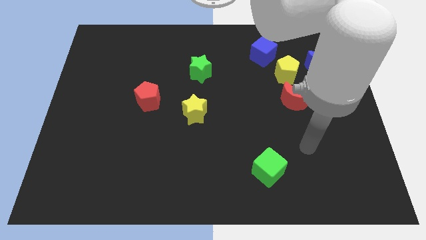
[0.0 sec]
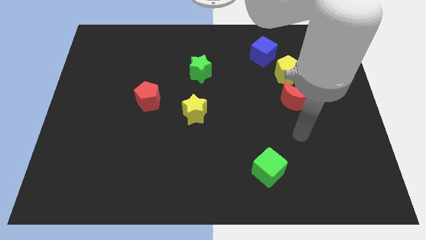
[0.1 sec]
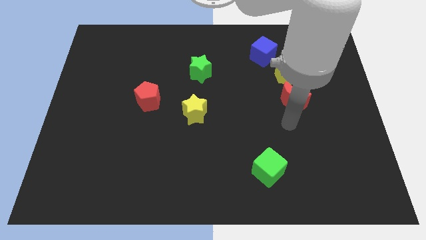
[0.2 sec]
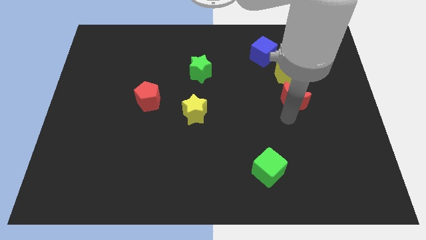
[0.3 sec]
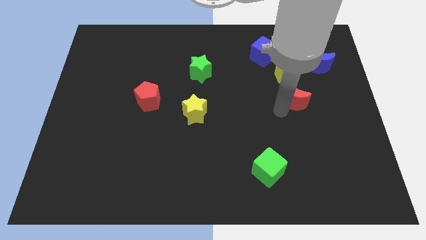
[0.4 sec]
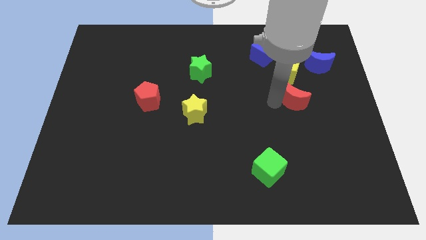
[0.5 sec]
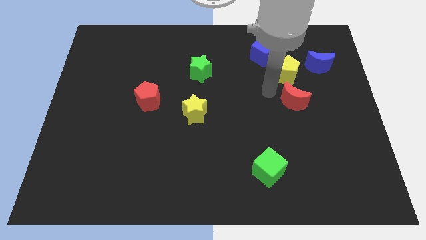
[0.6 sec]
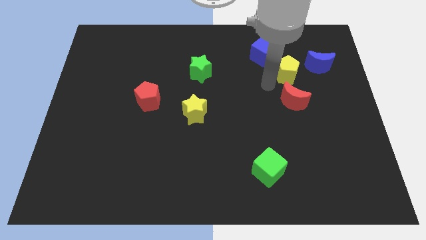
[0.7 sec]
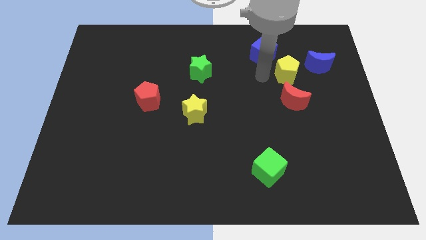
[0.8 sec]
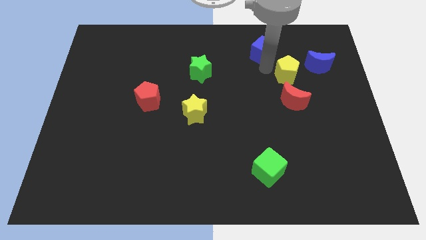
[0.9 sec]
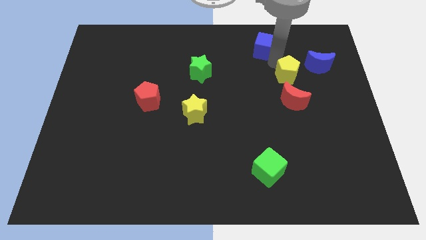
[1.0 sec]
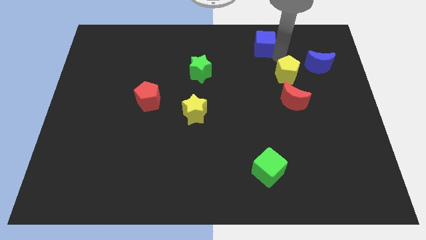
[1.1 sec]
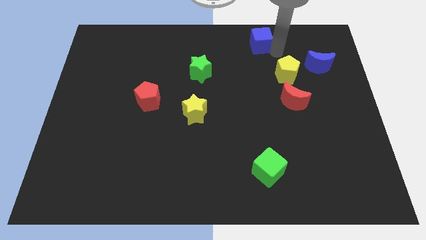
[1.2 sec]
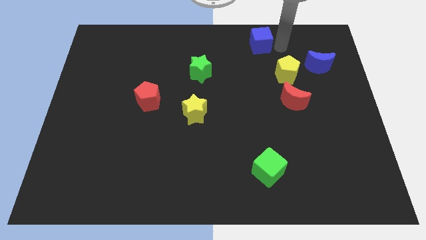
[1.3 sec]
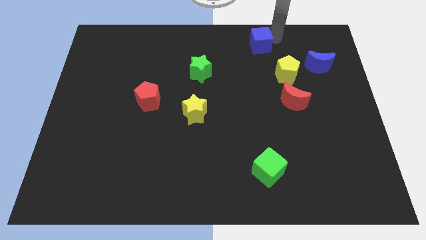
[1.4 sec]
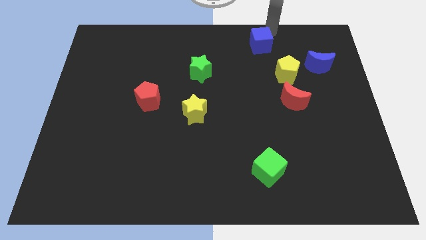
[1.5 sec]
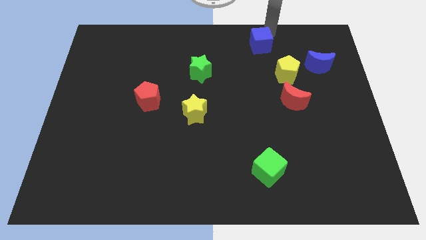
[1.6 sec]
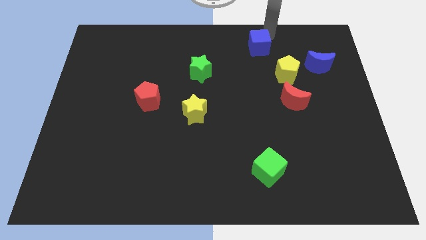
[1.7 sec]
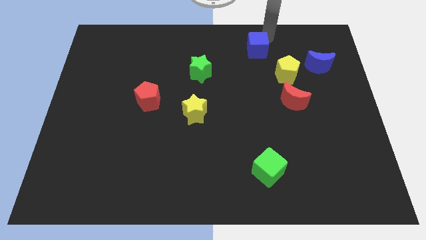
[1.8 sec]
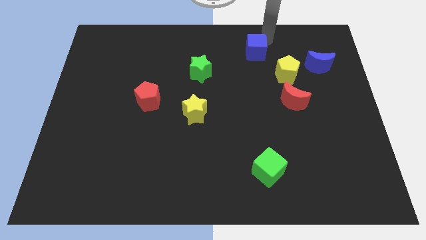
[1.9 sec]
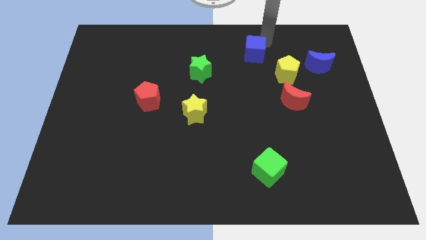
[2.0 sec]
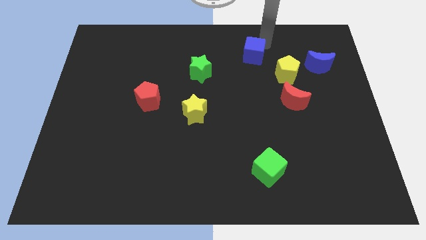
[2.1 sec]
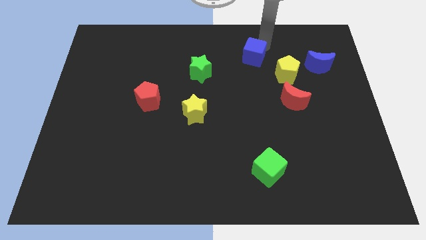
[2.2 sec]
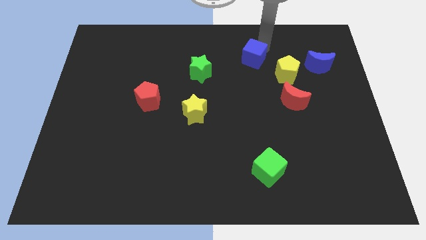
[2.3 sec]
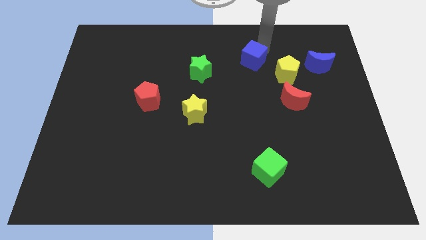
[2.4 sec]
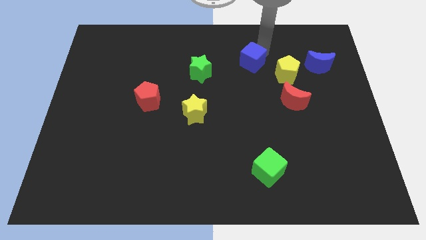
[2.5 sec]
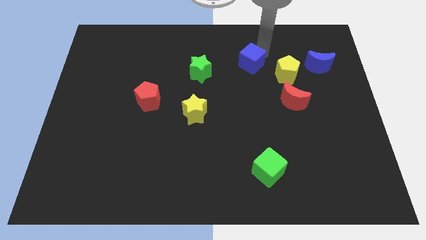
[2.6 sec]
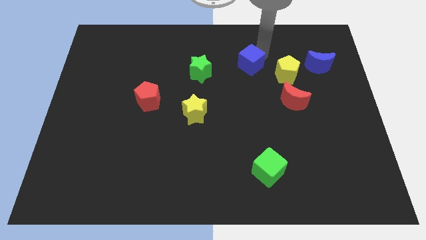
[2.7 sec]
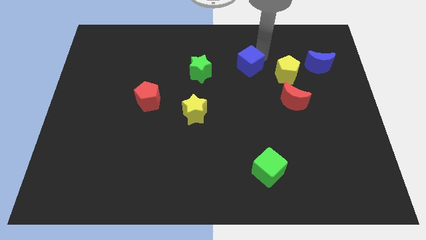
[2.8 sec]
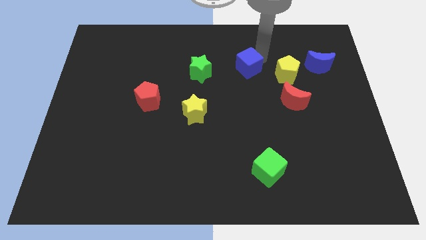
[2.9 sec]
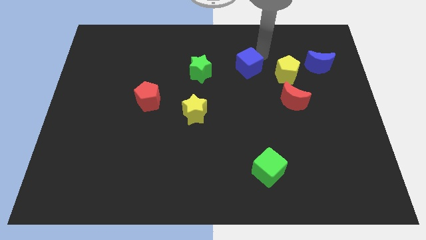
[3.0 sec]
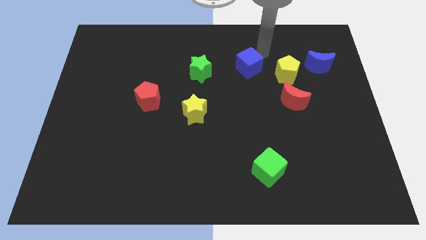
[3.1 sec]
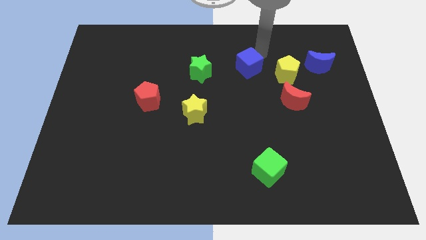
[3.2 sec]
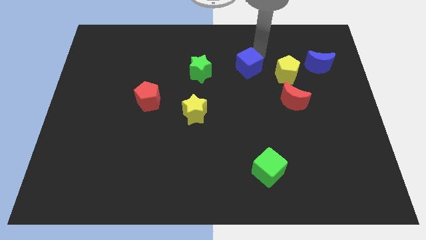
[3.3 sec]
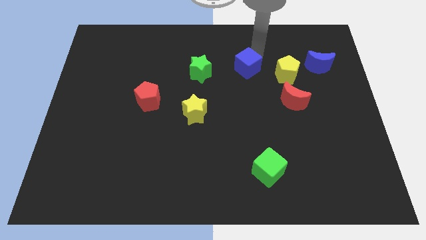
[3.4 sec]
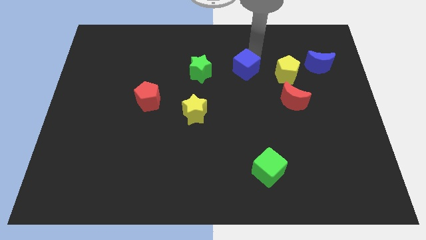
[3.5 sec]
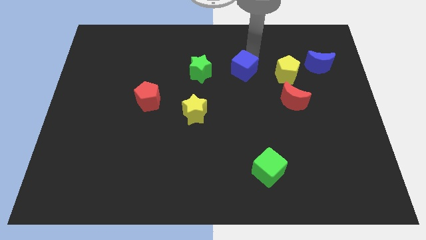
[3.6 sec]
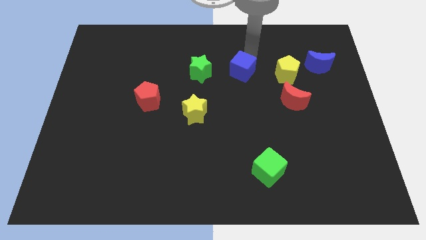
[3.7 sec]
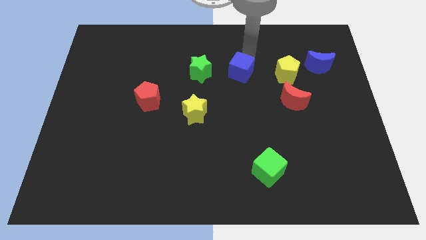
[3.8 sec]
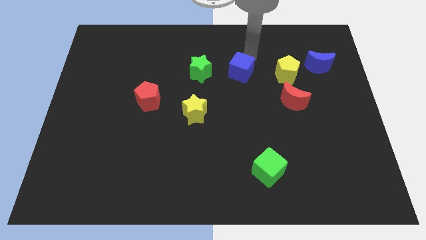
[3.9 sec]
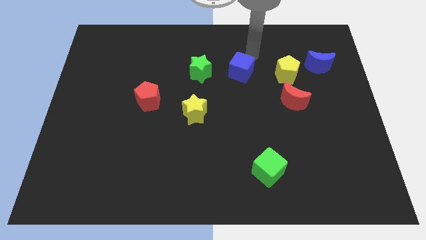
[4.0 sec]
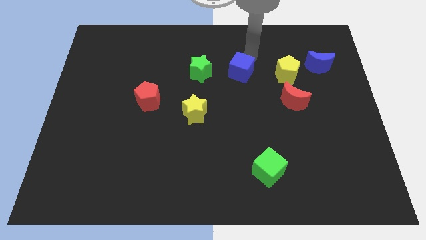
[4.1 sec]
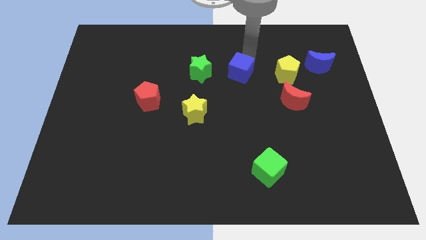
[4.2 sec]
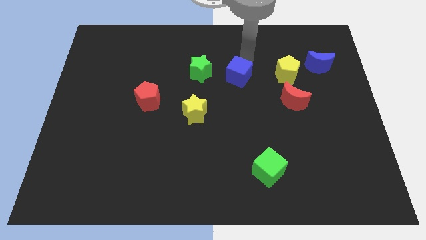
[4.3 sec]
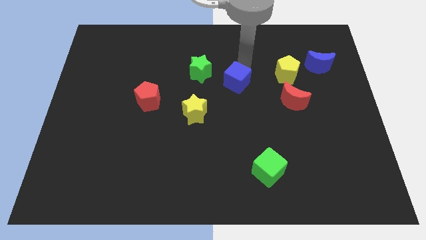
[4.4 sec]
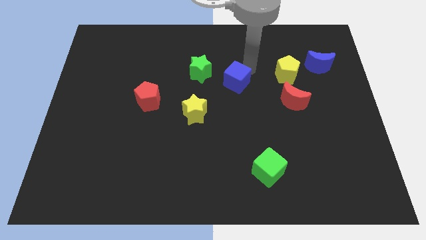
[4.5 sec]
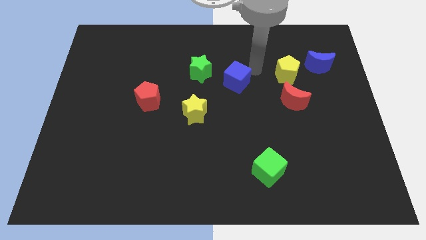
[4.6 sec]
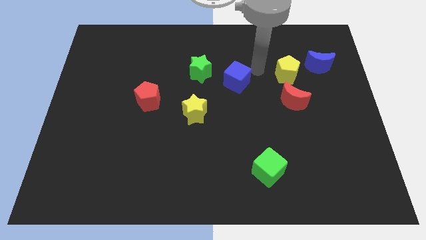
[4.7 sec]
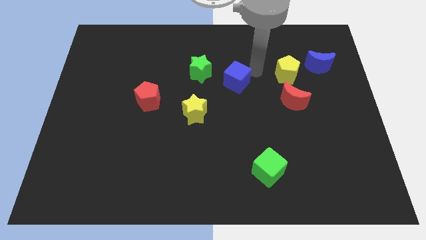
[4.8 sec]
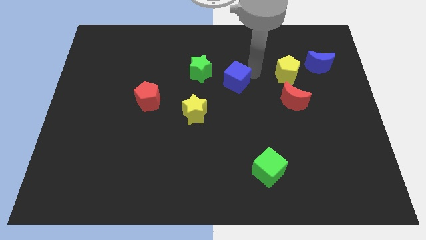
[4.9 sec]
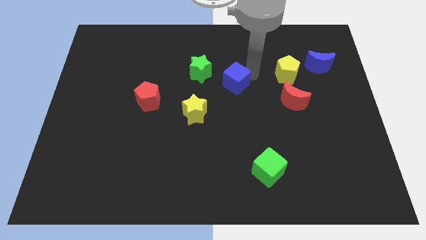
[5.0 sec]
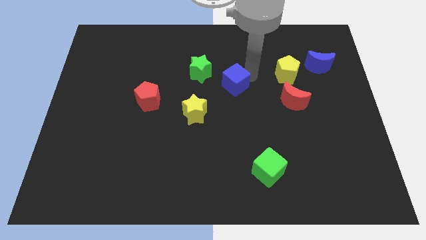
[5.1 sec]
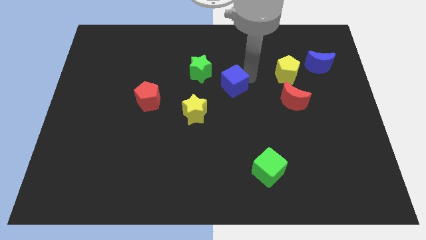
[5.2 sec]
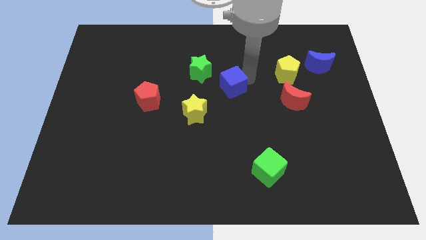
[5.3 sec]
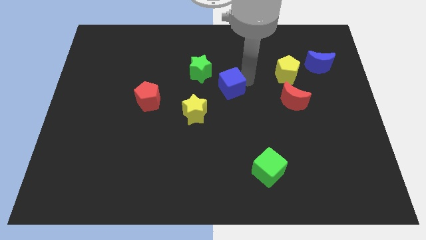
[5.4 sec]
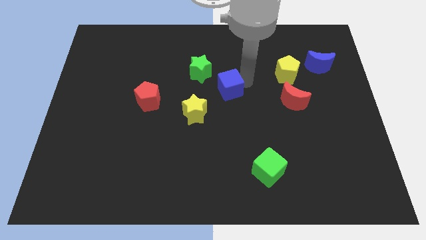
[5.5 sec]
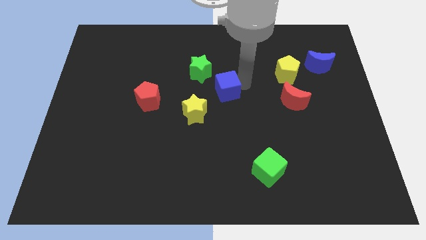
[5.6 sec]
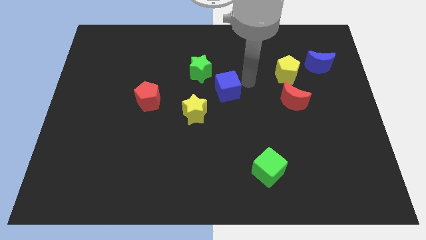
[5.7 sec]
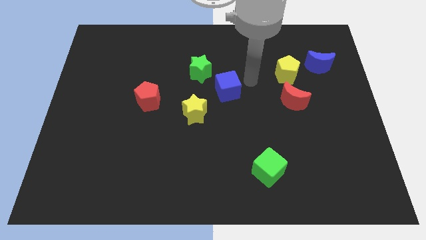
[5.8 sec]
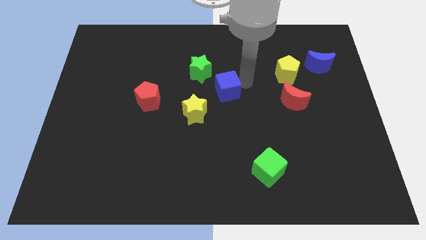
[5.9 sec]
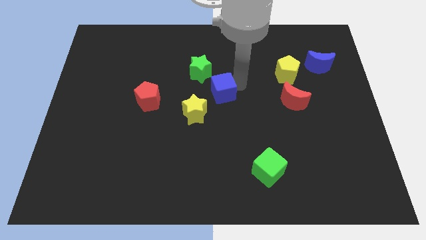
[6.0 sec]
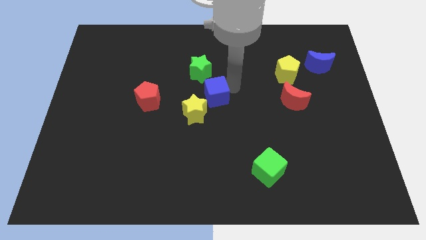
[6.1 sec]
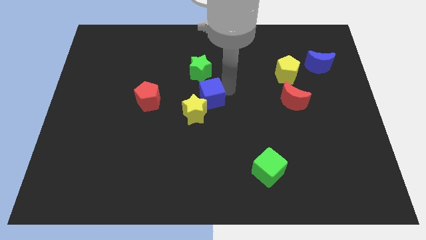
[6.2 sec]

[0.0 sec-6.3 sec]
move the blue cube downwards and left

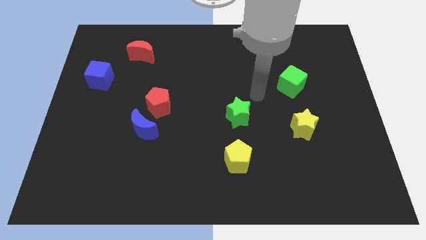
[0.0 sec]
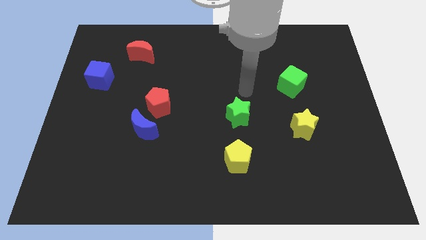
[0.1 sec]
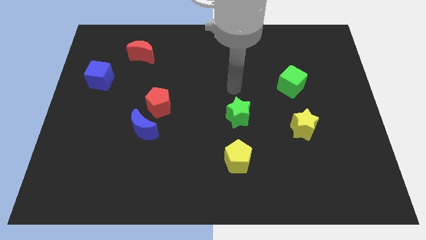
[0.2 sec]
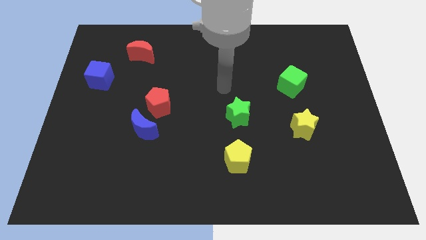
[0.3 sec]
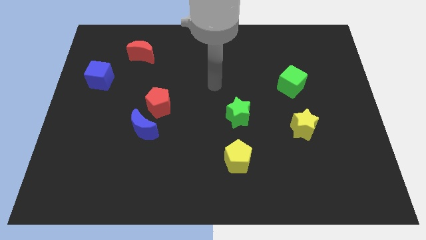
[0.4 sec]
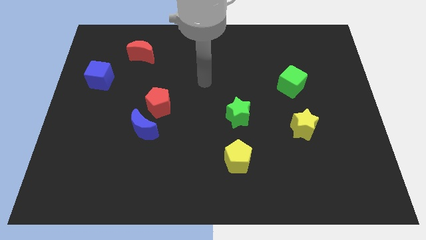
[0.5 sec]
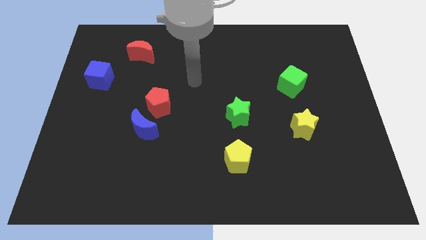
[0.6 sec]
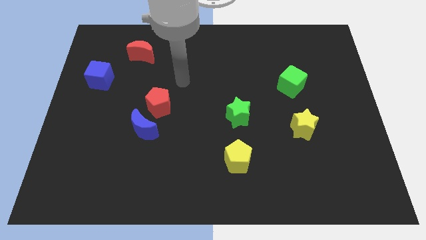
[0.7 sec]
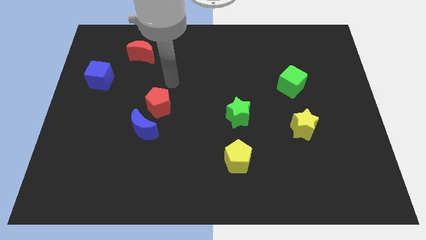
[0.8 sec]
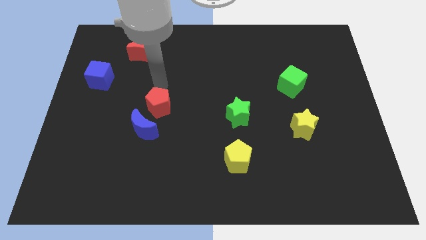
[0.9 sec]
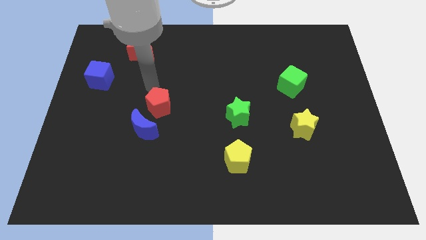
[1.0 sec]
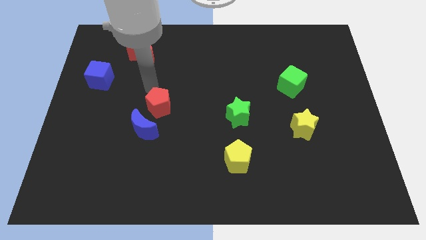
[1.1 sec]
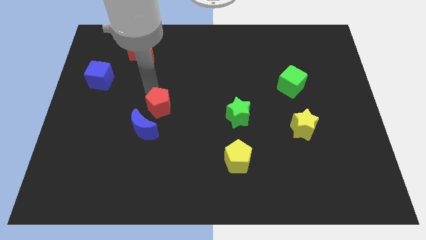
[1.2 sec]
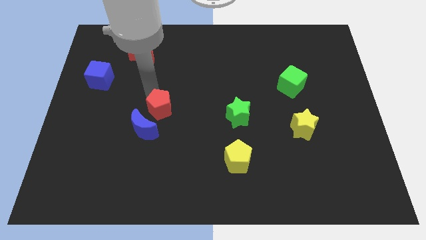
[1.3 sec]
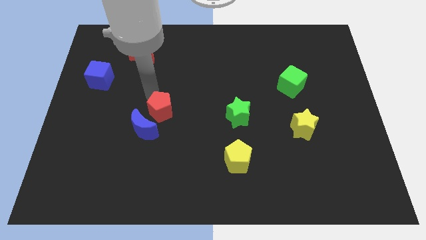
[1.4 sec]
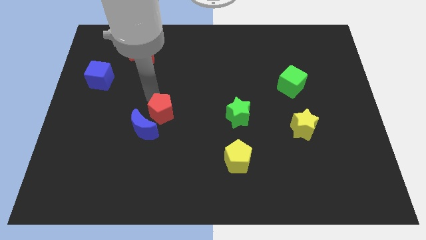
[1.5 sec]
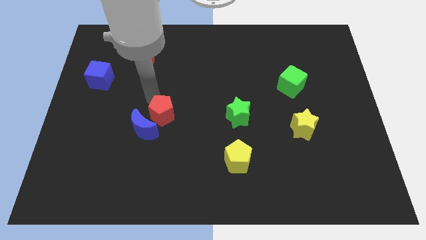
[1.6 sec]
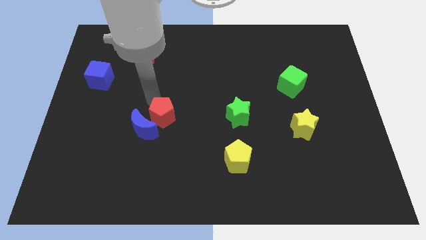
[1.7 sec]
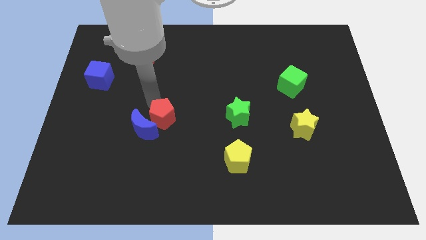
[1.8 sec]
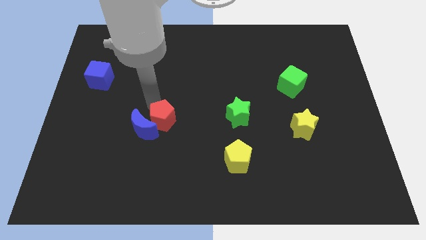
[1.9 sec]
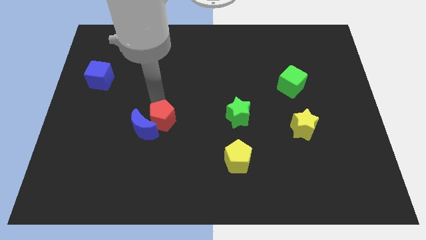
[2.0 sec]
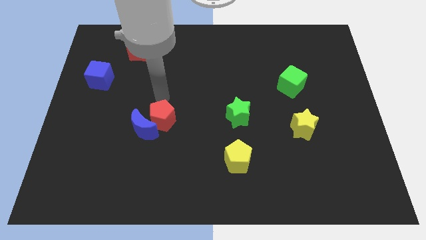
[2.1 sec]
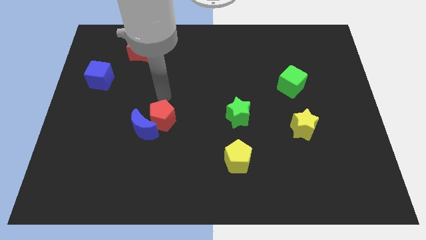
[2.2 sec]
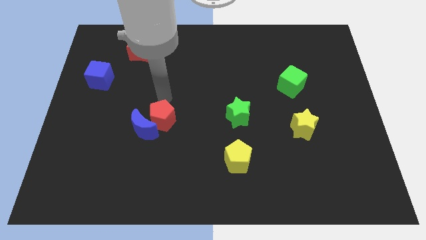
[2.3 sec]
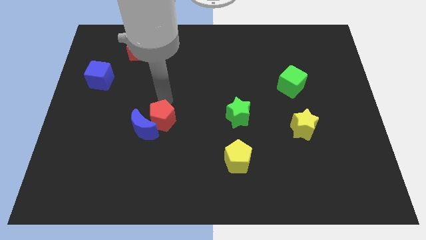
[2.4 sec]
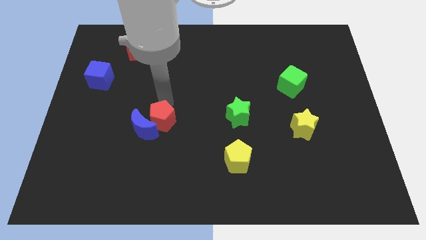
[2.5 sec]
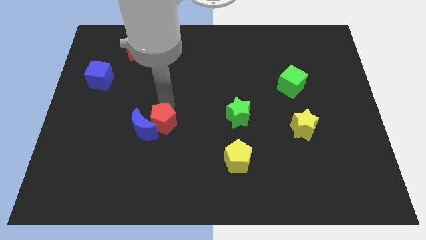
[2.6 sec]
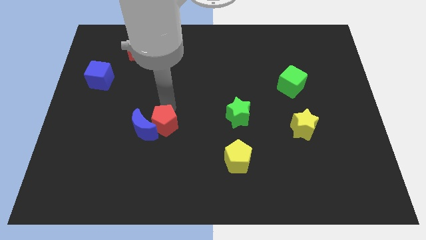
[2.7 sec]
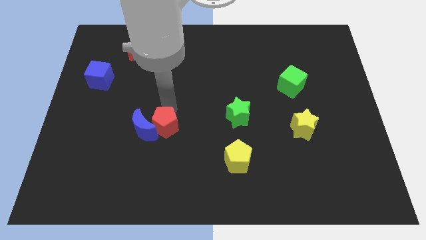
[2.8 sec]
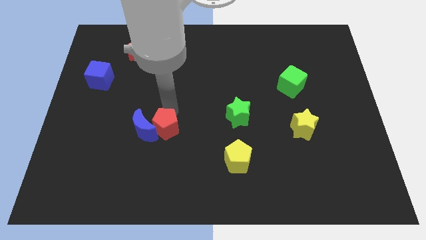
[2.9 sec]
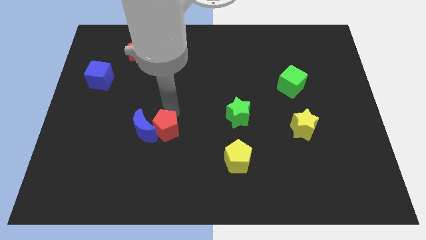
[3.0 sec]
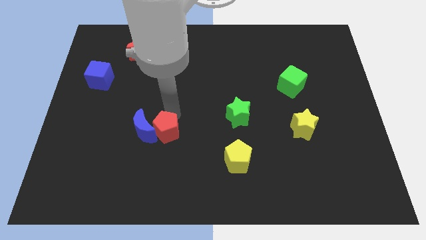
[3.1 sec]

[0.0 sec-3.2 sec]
move the red pentagon a little bit downwards
